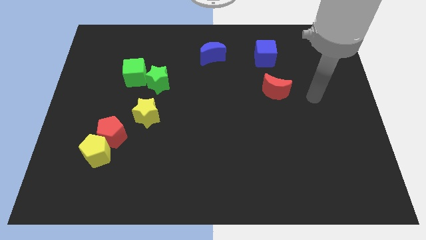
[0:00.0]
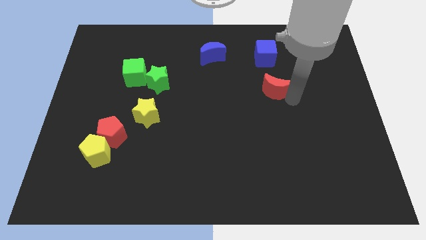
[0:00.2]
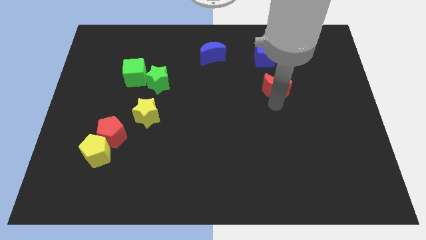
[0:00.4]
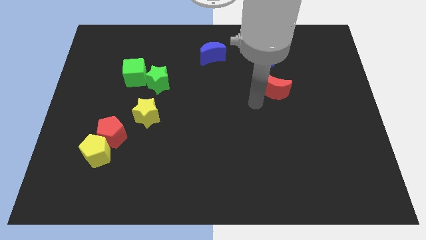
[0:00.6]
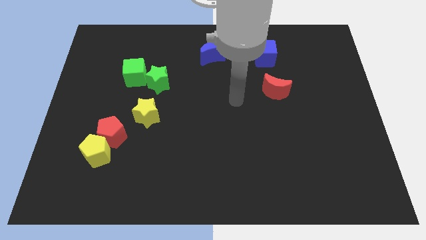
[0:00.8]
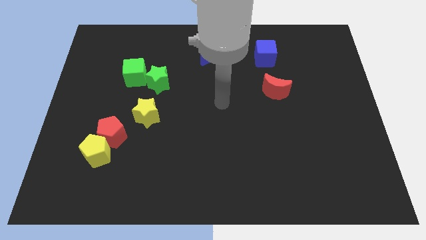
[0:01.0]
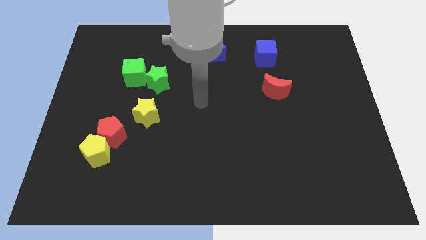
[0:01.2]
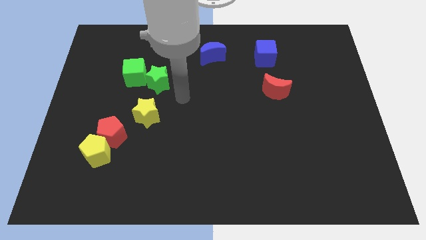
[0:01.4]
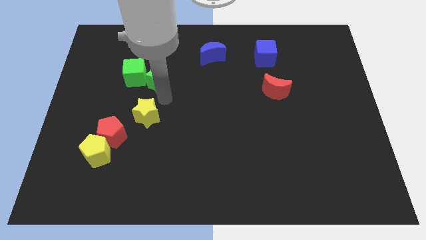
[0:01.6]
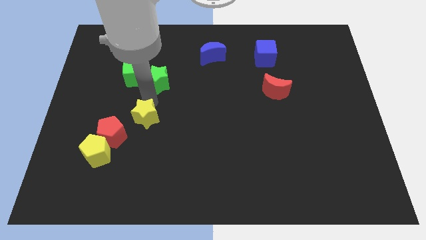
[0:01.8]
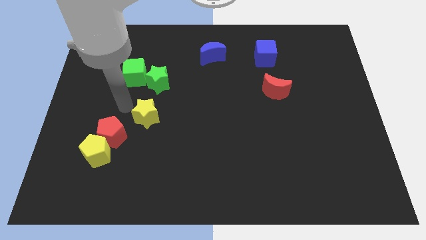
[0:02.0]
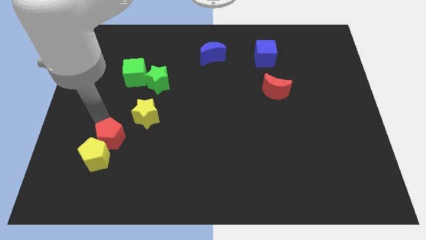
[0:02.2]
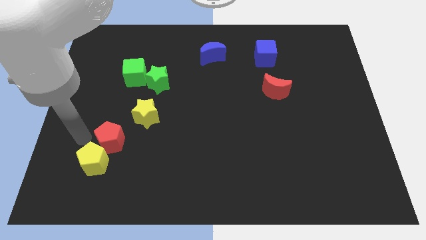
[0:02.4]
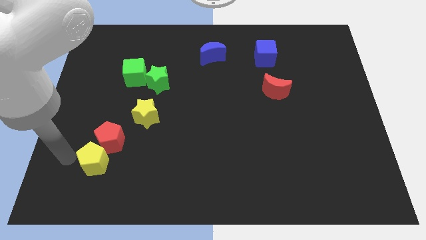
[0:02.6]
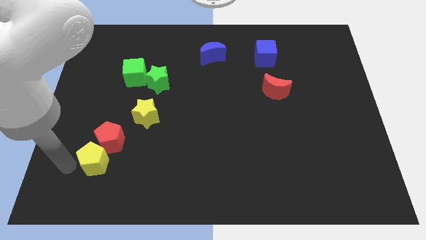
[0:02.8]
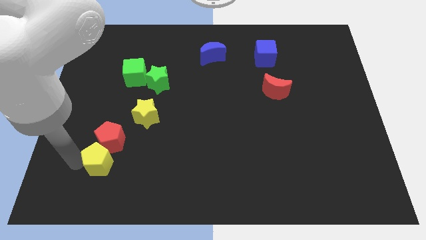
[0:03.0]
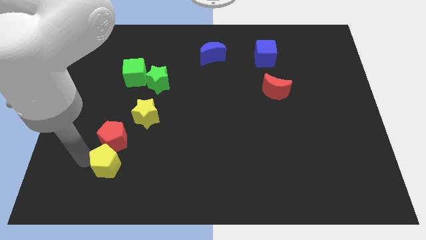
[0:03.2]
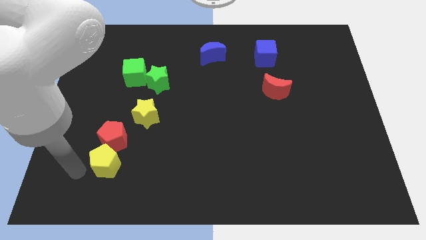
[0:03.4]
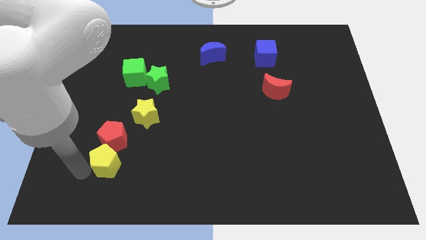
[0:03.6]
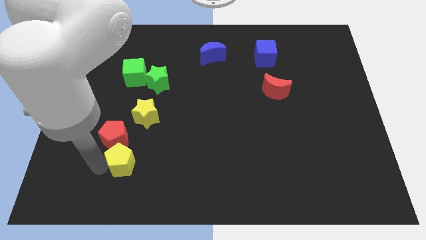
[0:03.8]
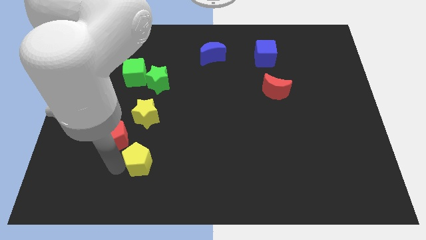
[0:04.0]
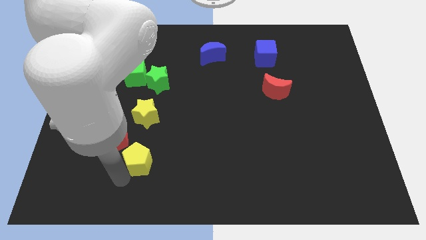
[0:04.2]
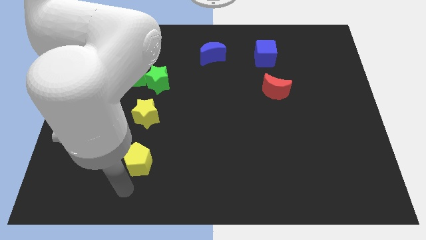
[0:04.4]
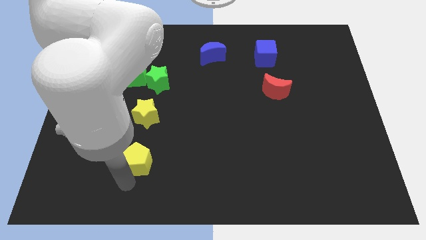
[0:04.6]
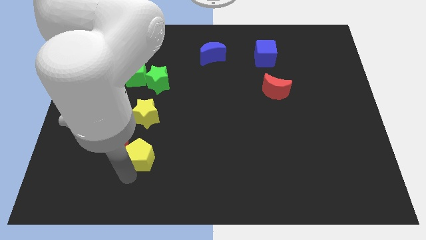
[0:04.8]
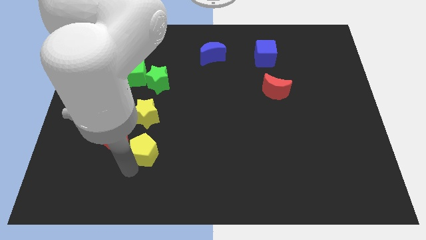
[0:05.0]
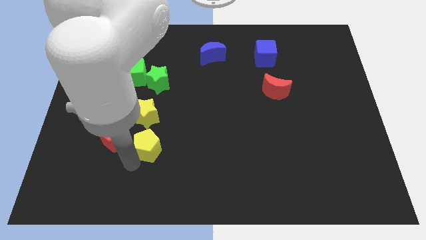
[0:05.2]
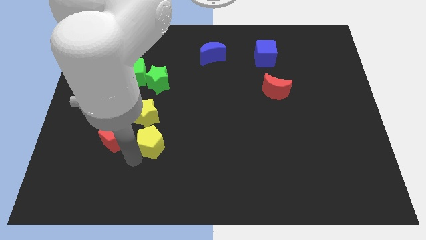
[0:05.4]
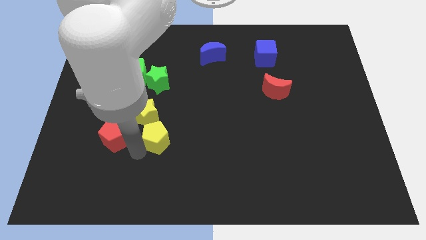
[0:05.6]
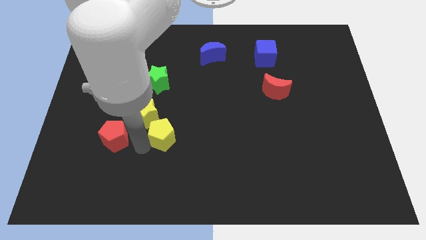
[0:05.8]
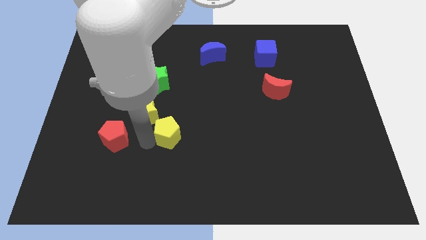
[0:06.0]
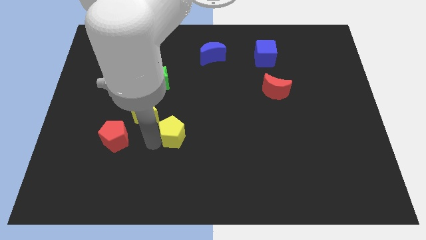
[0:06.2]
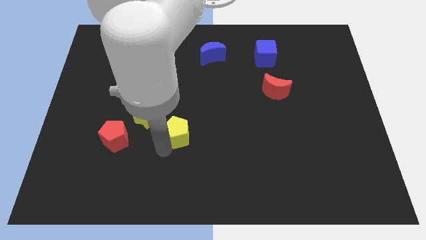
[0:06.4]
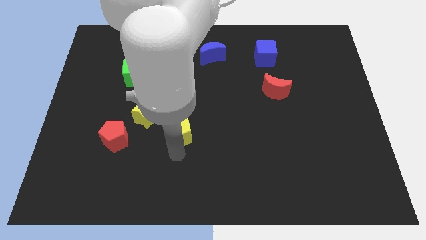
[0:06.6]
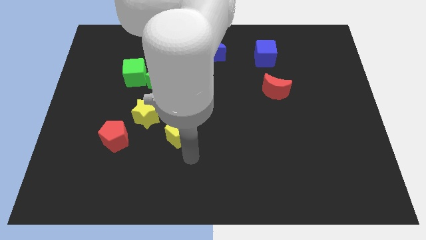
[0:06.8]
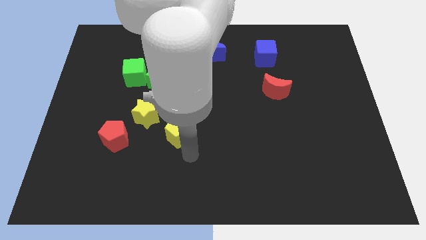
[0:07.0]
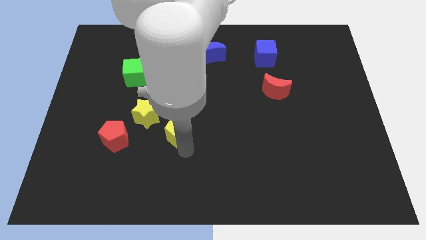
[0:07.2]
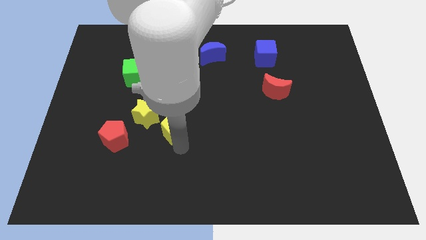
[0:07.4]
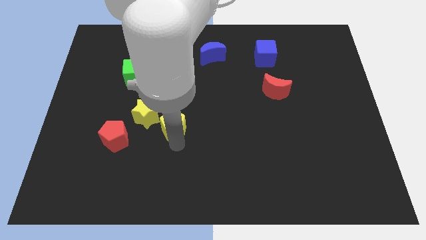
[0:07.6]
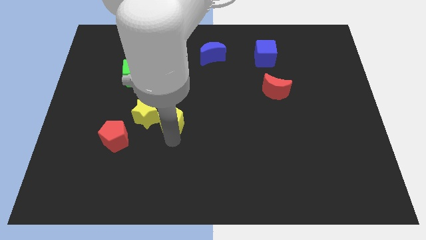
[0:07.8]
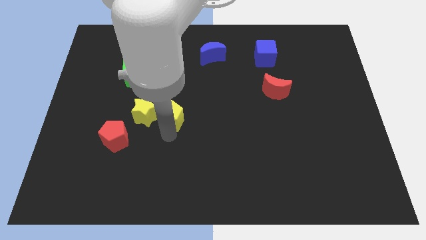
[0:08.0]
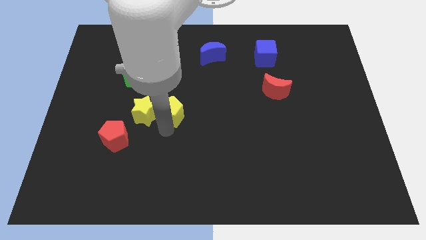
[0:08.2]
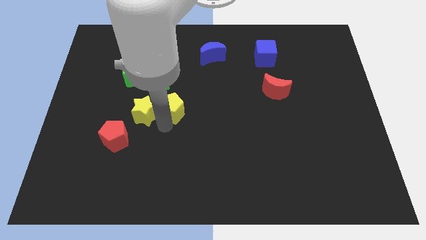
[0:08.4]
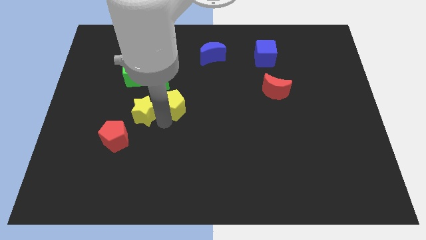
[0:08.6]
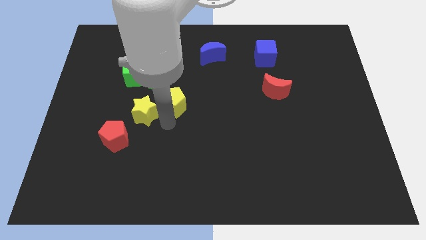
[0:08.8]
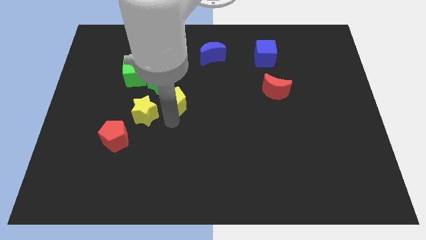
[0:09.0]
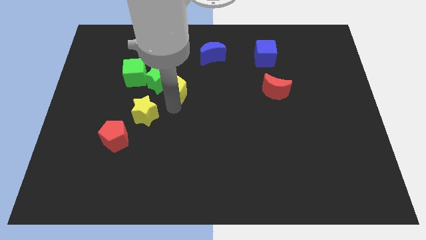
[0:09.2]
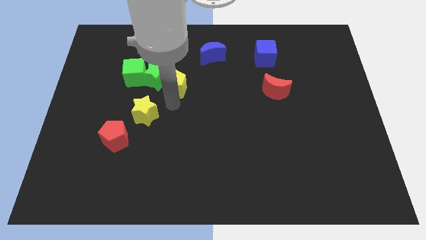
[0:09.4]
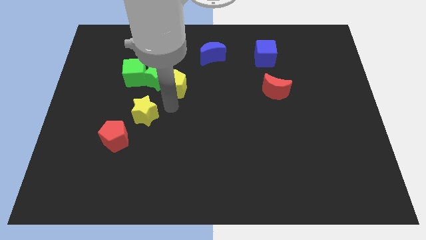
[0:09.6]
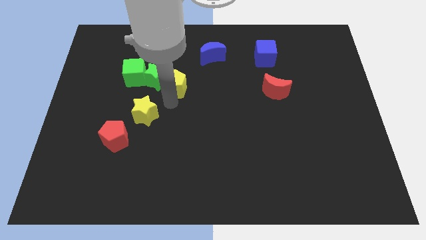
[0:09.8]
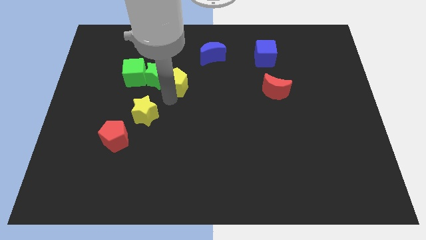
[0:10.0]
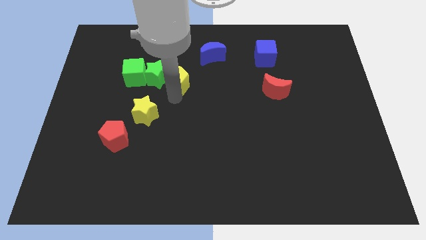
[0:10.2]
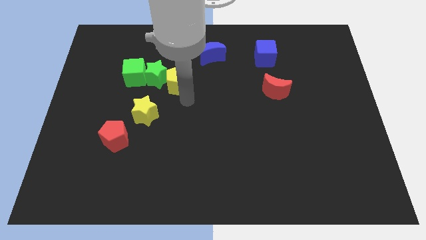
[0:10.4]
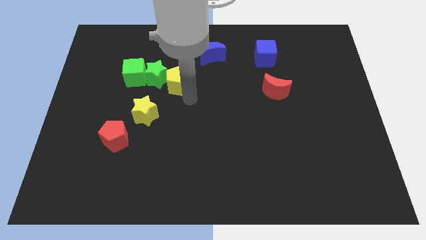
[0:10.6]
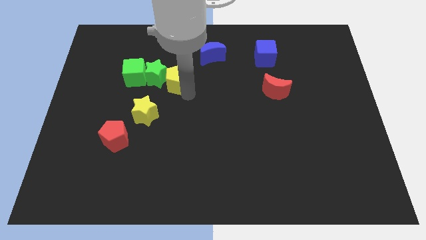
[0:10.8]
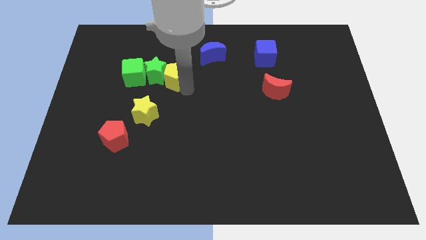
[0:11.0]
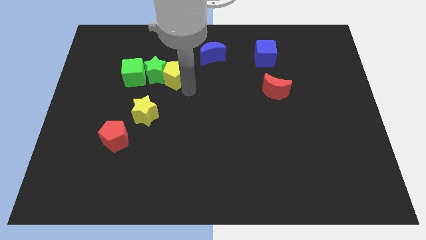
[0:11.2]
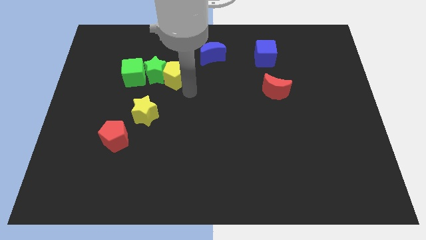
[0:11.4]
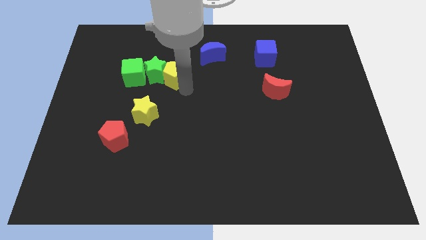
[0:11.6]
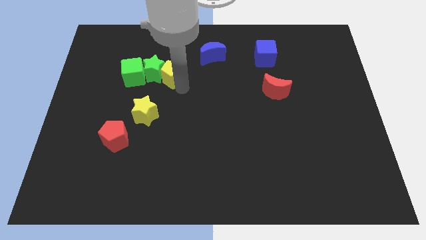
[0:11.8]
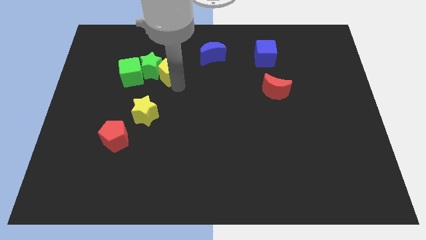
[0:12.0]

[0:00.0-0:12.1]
push the yellow pentagon to the top of the yellow star

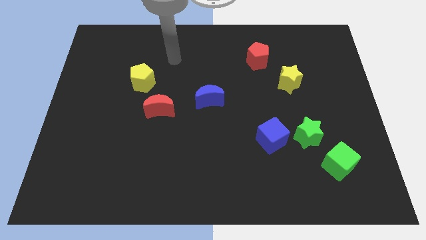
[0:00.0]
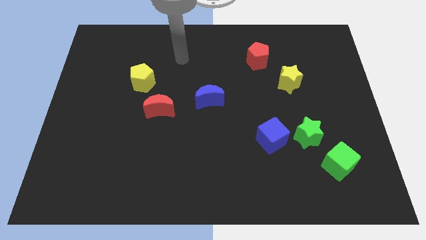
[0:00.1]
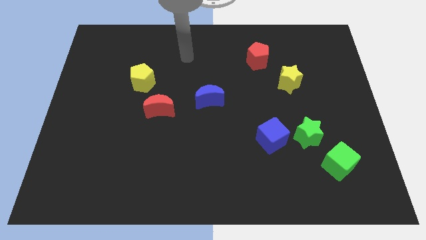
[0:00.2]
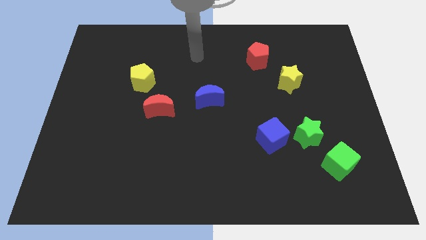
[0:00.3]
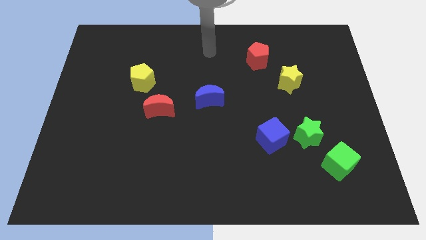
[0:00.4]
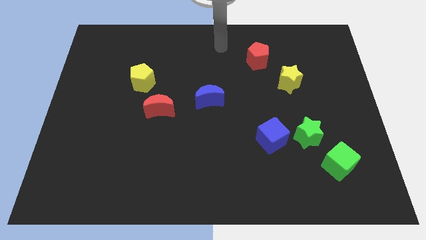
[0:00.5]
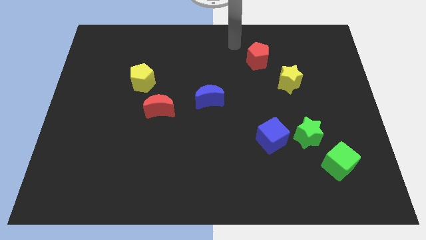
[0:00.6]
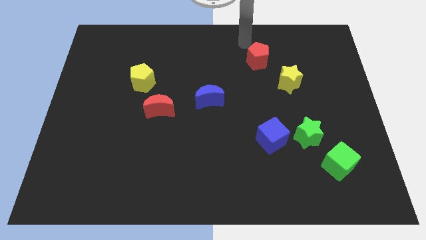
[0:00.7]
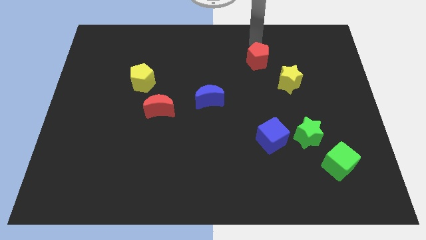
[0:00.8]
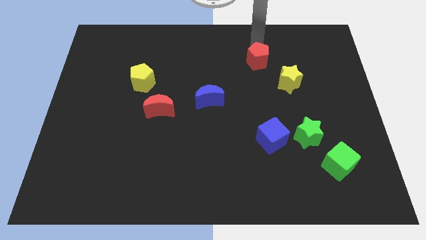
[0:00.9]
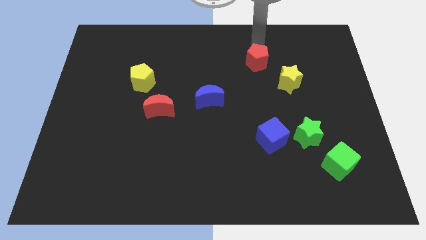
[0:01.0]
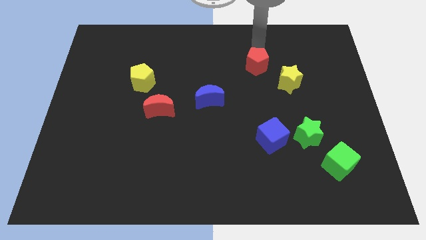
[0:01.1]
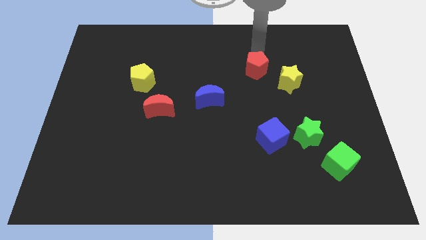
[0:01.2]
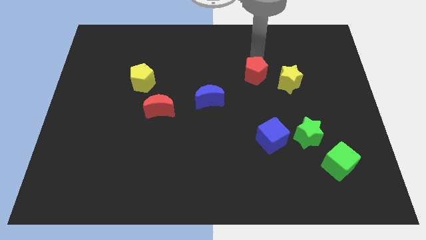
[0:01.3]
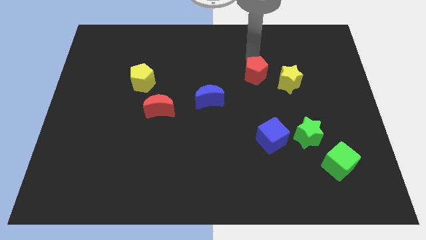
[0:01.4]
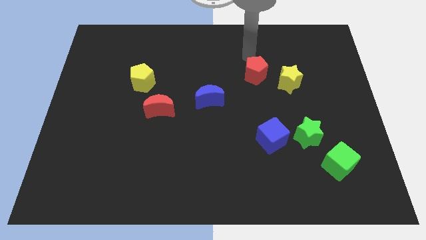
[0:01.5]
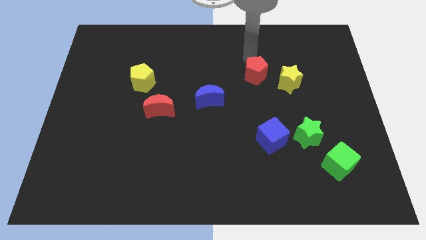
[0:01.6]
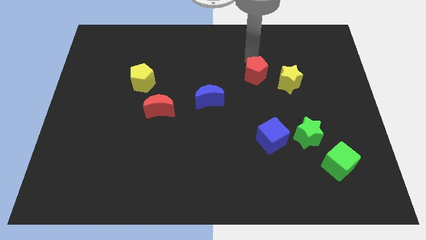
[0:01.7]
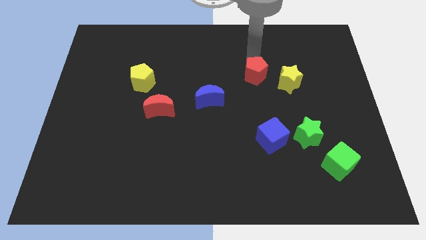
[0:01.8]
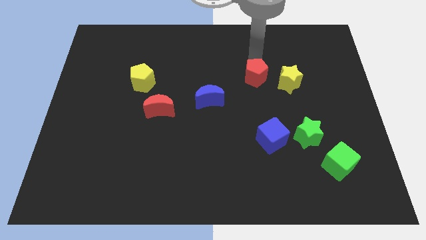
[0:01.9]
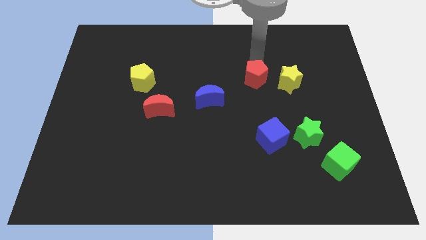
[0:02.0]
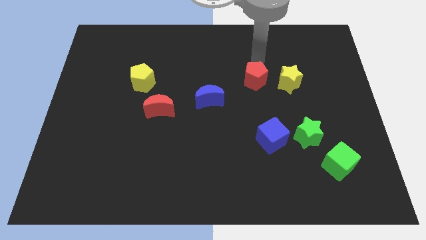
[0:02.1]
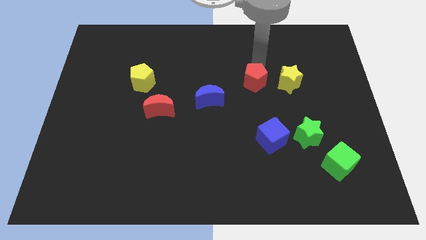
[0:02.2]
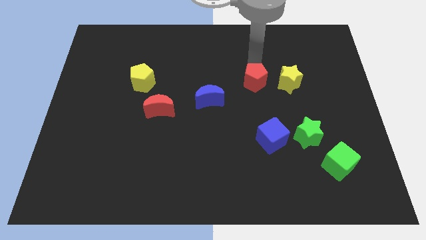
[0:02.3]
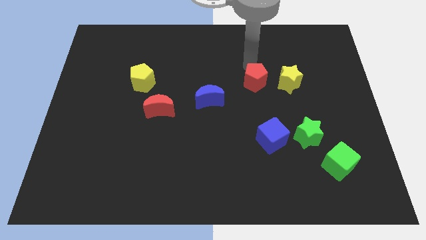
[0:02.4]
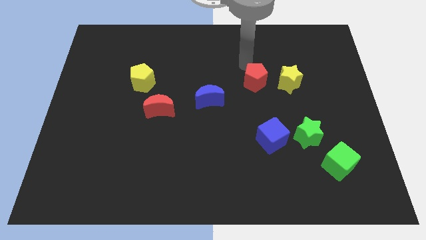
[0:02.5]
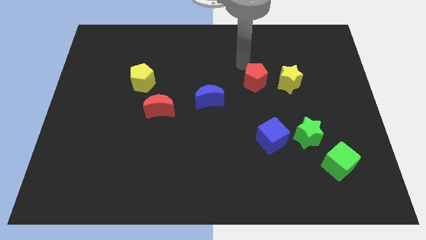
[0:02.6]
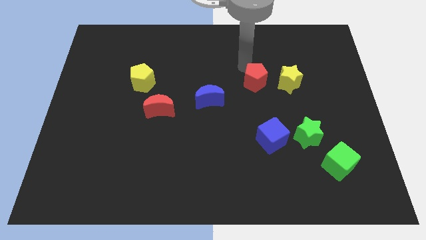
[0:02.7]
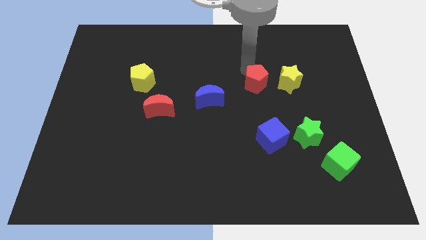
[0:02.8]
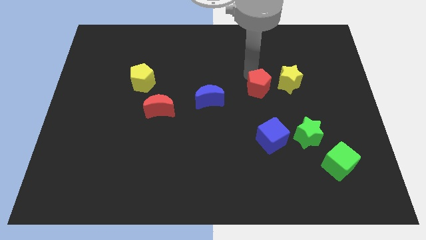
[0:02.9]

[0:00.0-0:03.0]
move the red pentagon to the bottom left of the yellow star
